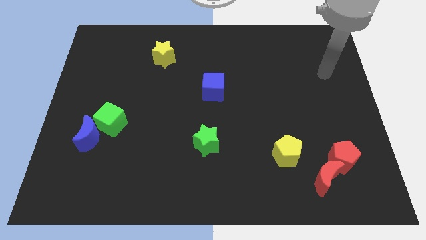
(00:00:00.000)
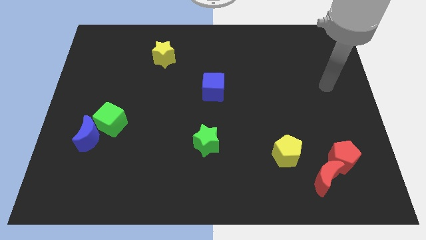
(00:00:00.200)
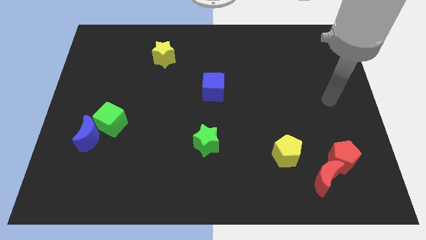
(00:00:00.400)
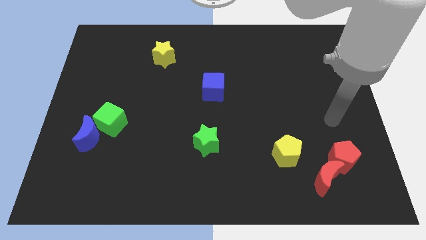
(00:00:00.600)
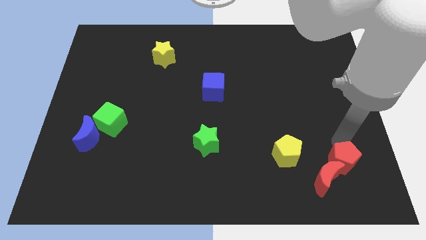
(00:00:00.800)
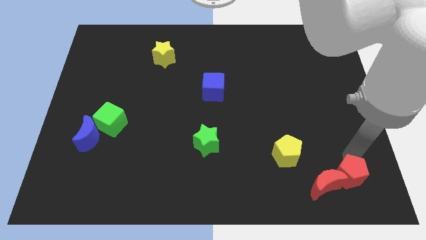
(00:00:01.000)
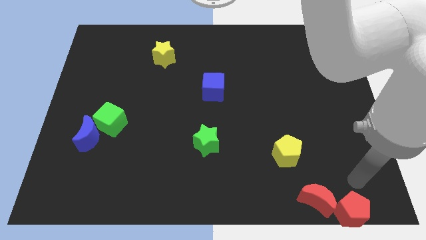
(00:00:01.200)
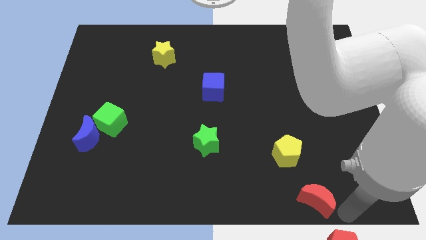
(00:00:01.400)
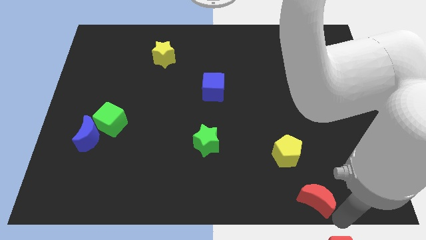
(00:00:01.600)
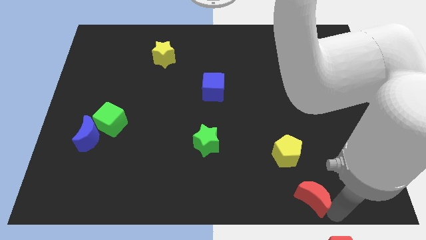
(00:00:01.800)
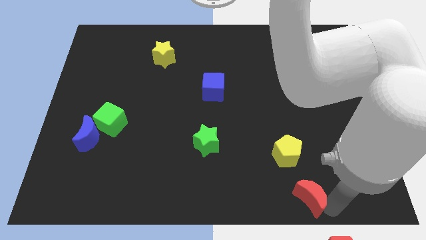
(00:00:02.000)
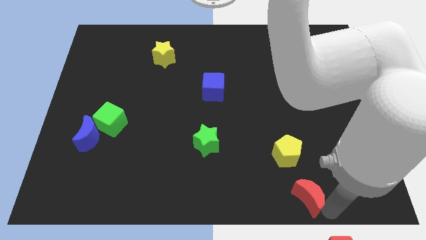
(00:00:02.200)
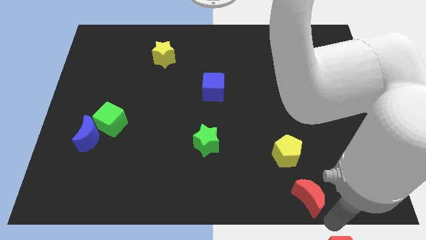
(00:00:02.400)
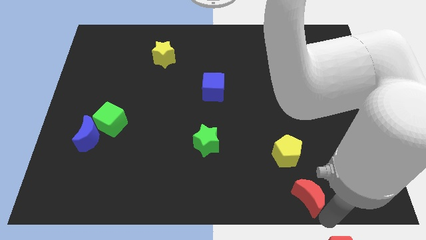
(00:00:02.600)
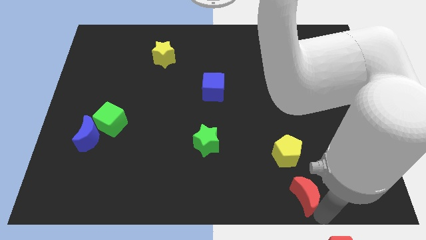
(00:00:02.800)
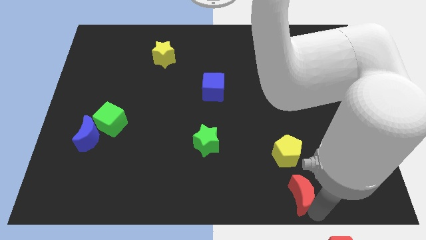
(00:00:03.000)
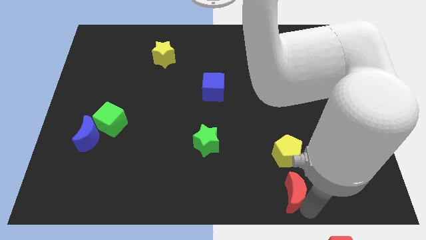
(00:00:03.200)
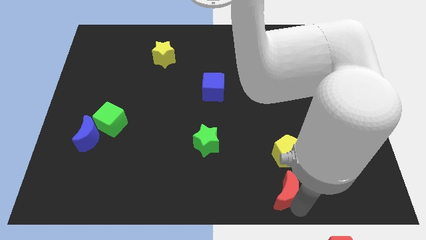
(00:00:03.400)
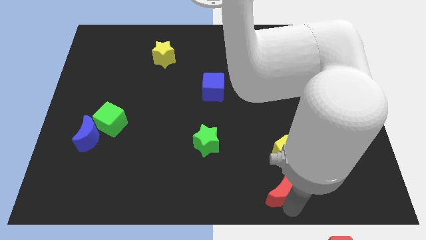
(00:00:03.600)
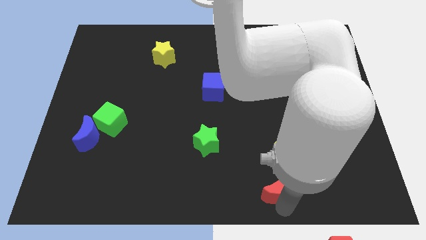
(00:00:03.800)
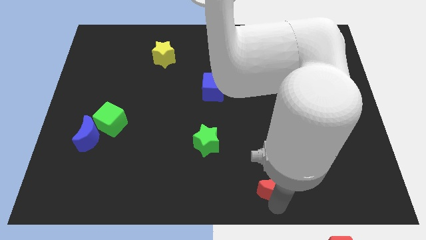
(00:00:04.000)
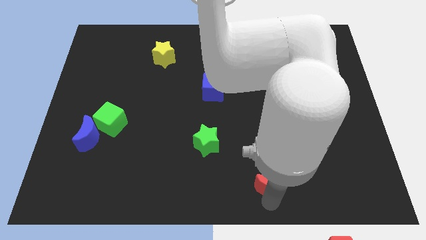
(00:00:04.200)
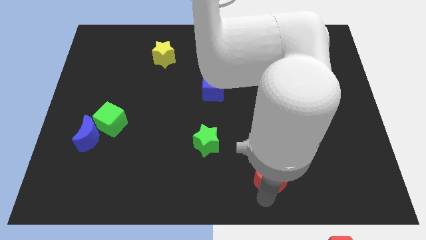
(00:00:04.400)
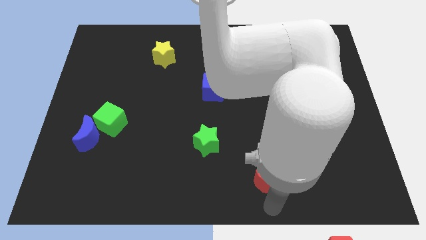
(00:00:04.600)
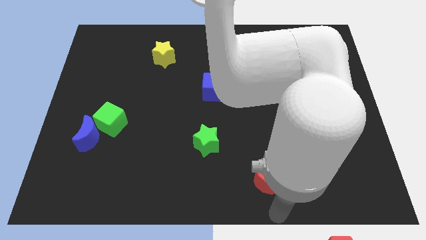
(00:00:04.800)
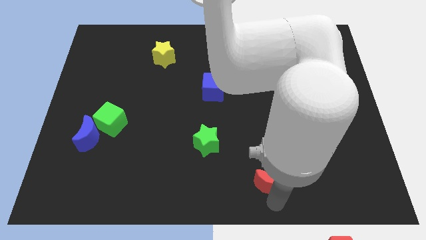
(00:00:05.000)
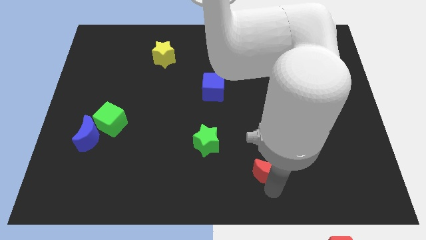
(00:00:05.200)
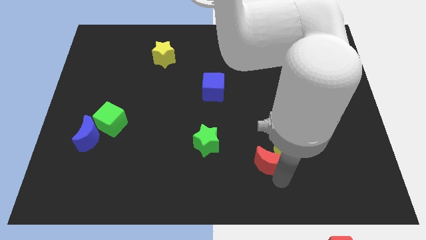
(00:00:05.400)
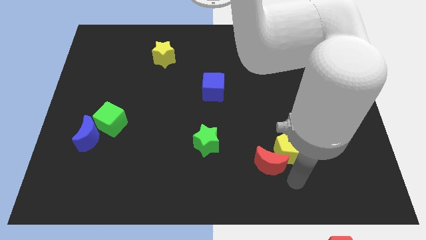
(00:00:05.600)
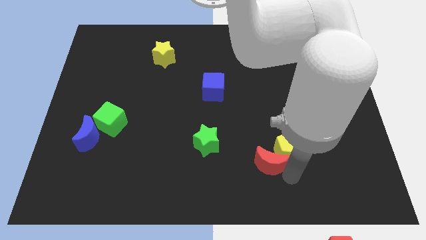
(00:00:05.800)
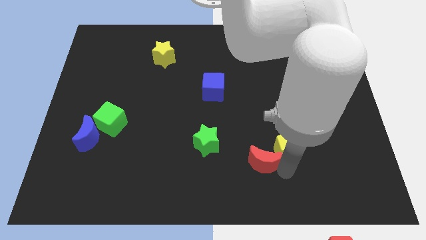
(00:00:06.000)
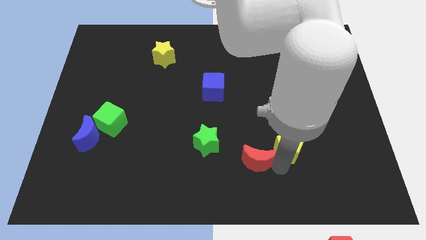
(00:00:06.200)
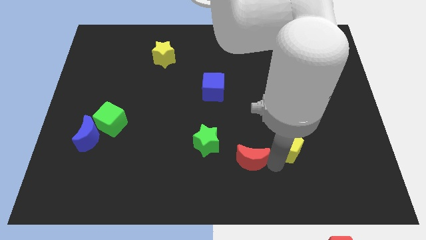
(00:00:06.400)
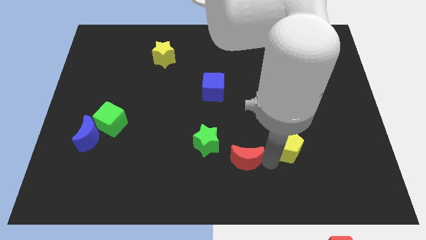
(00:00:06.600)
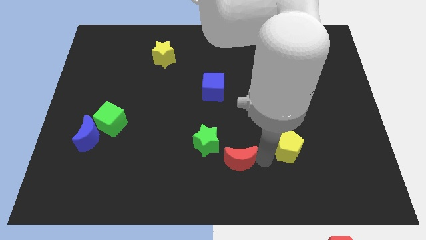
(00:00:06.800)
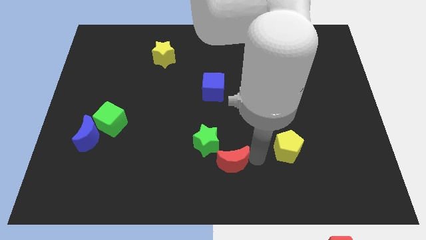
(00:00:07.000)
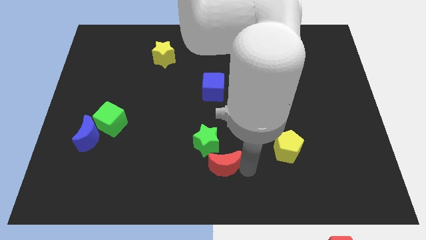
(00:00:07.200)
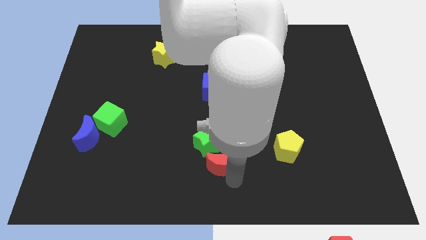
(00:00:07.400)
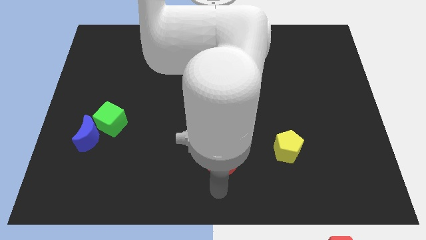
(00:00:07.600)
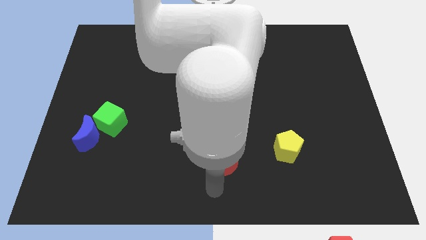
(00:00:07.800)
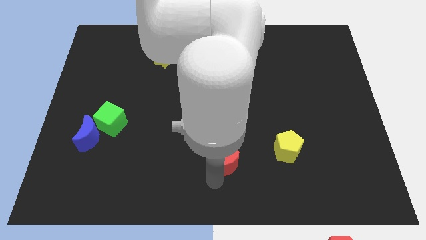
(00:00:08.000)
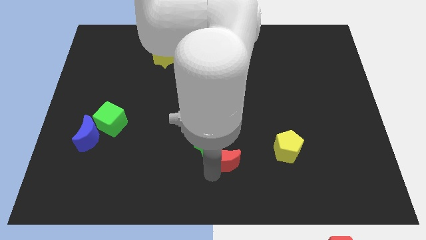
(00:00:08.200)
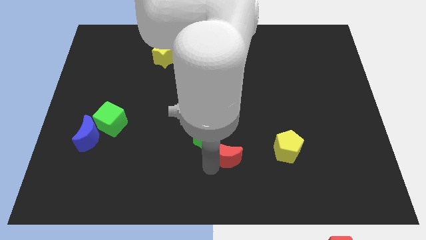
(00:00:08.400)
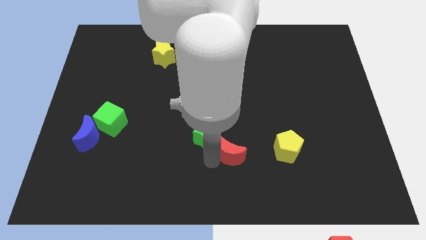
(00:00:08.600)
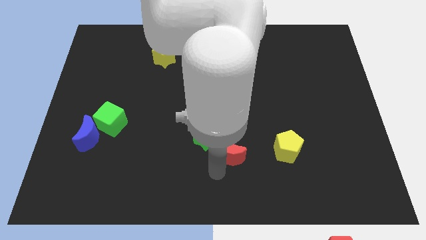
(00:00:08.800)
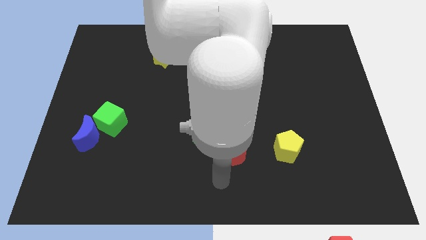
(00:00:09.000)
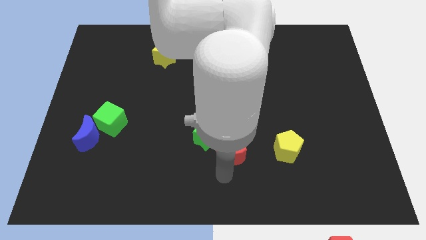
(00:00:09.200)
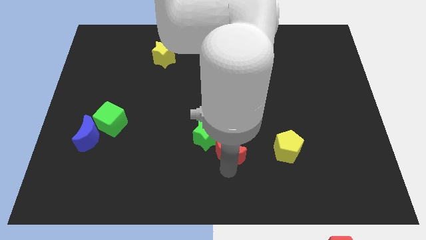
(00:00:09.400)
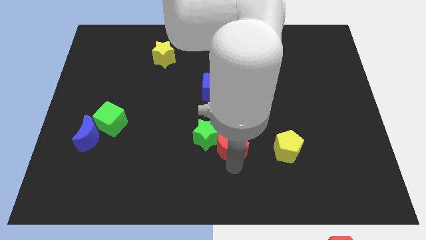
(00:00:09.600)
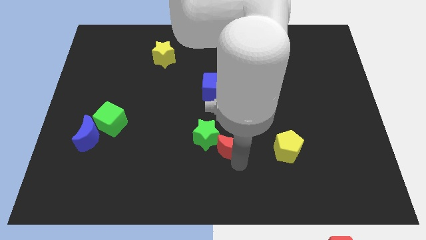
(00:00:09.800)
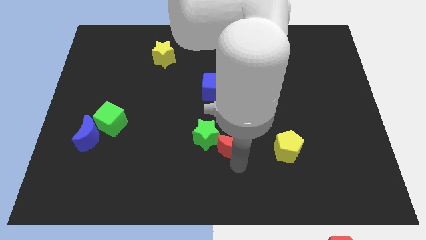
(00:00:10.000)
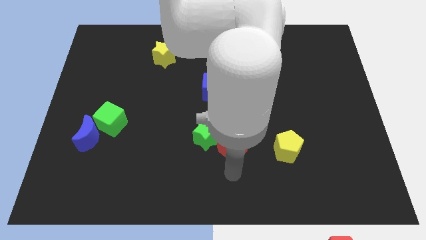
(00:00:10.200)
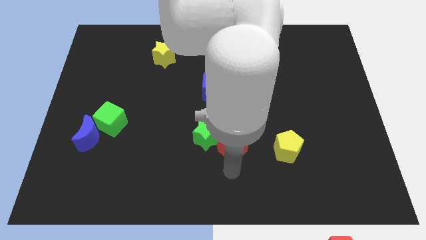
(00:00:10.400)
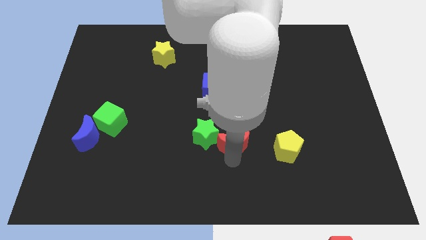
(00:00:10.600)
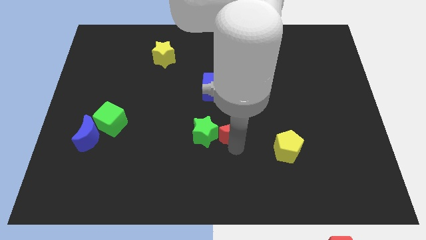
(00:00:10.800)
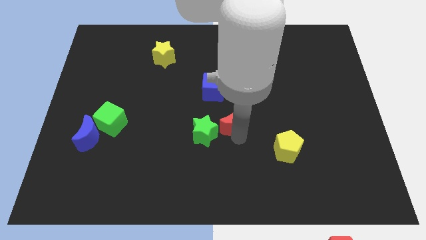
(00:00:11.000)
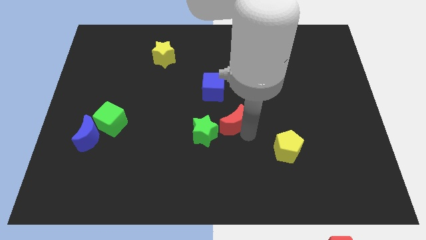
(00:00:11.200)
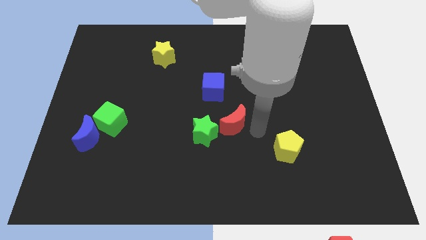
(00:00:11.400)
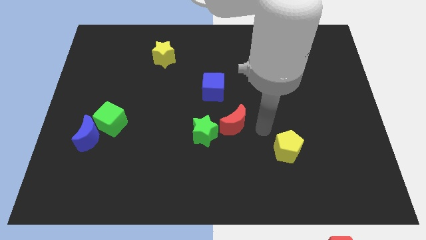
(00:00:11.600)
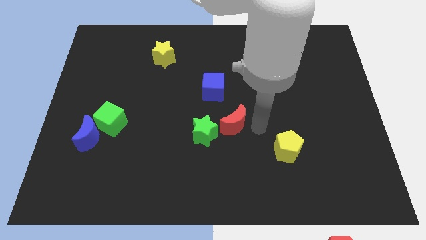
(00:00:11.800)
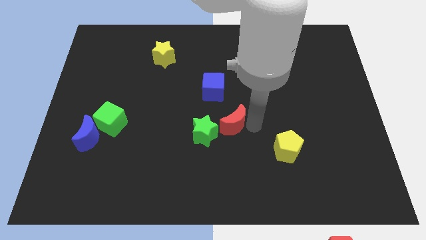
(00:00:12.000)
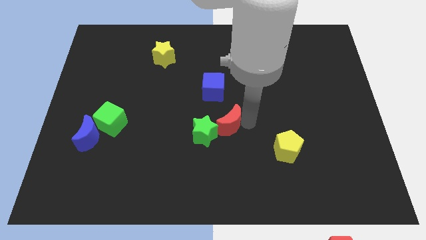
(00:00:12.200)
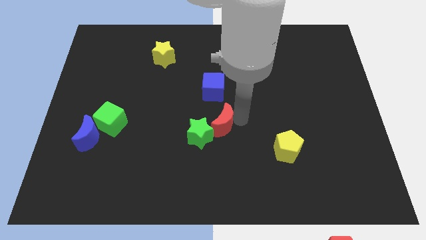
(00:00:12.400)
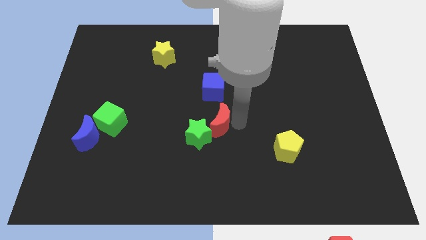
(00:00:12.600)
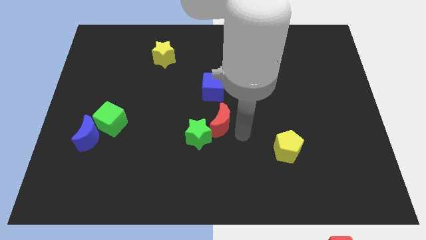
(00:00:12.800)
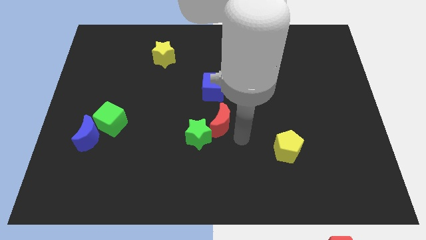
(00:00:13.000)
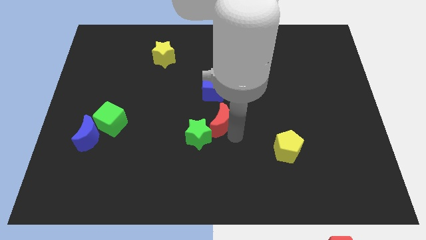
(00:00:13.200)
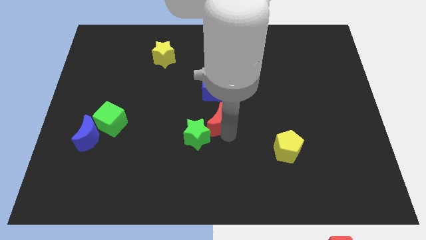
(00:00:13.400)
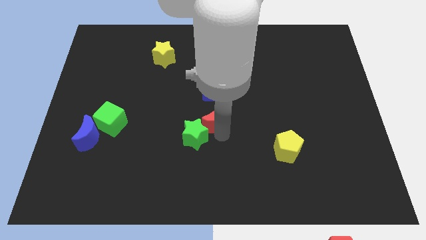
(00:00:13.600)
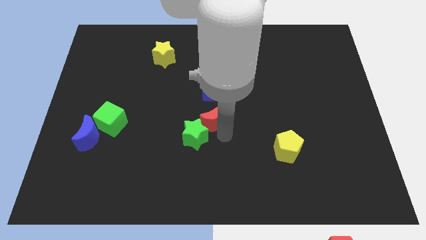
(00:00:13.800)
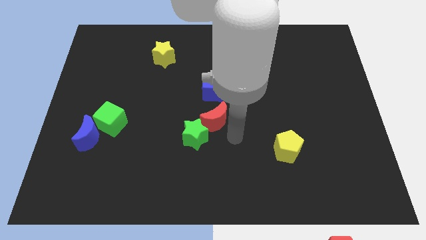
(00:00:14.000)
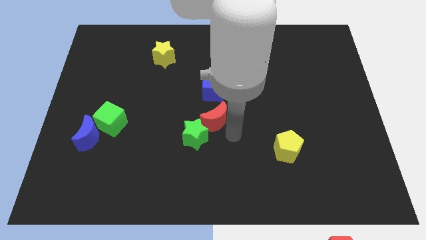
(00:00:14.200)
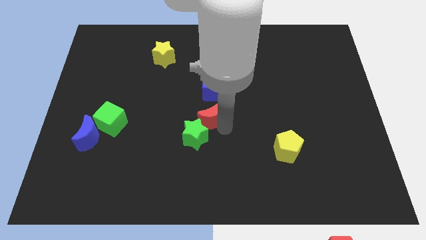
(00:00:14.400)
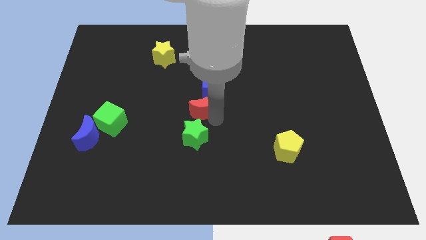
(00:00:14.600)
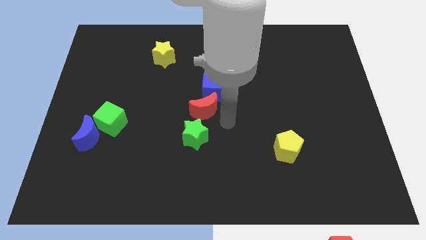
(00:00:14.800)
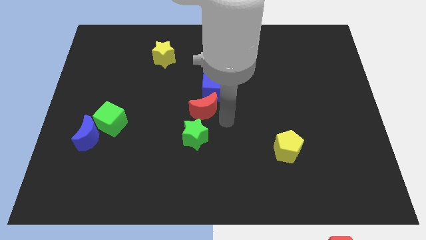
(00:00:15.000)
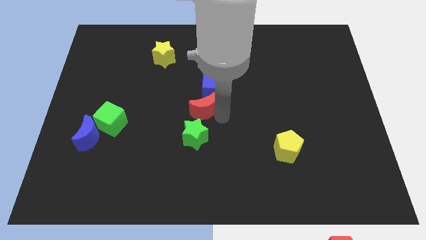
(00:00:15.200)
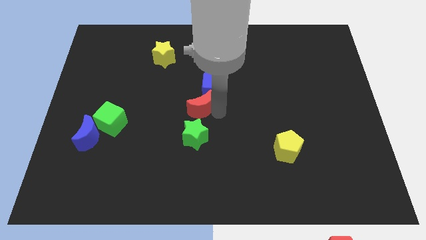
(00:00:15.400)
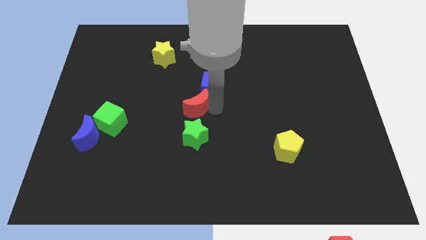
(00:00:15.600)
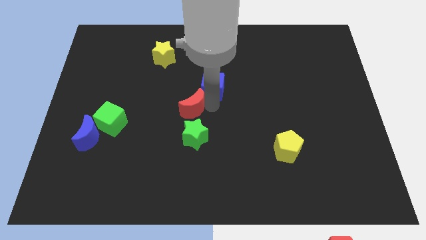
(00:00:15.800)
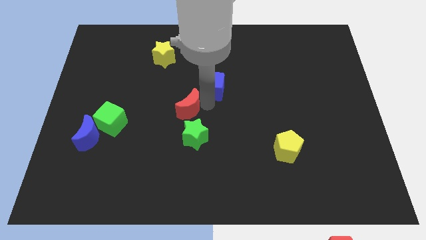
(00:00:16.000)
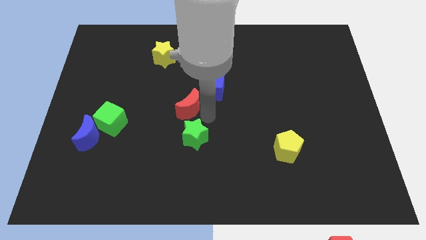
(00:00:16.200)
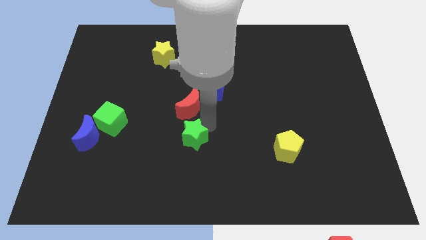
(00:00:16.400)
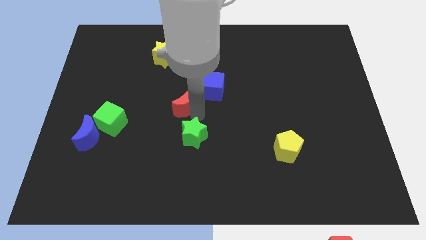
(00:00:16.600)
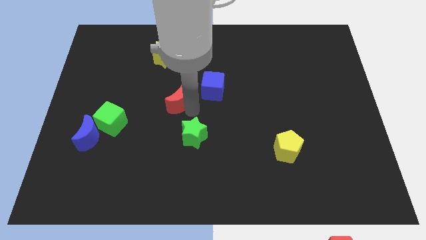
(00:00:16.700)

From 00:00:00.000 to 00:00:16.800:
slide the red moon just left of the blue cube
